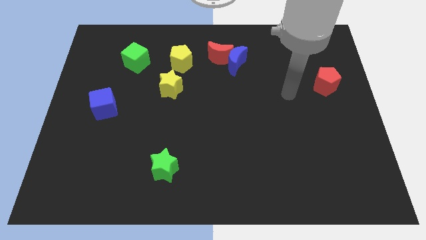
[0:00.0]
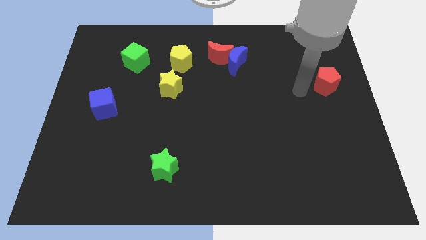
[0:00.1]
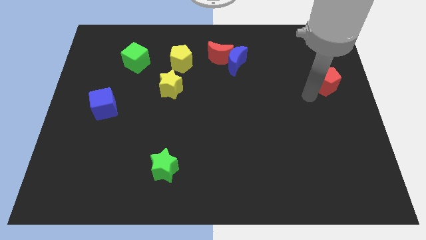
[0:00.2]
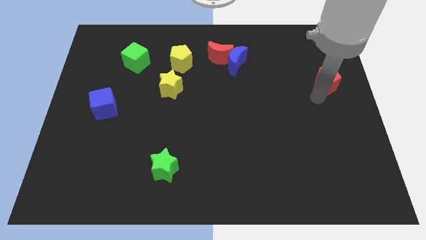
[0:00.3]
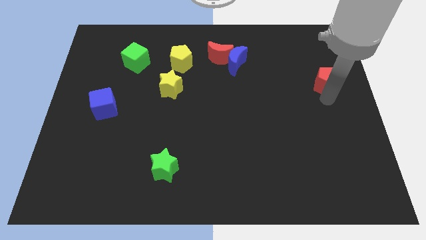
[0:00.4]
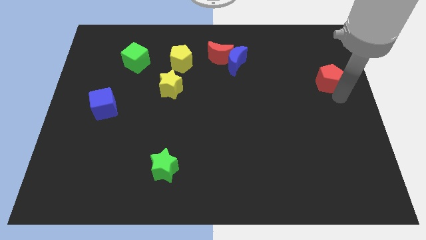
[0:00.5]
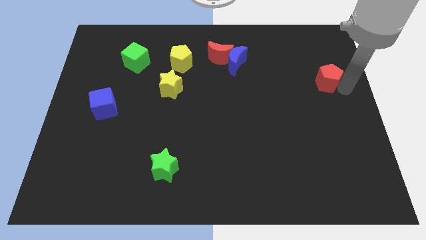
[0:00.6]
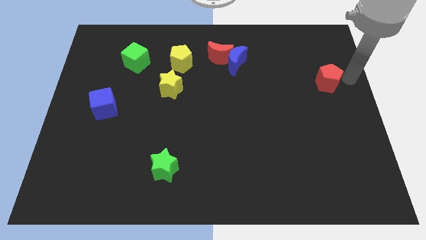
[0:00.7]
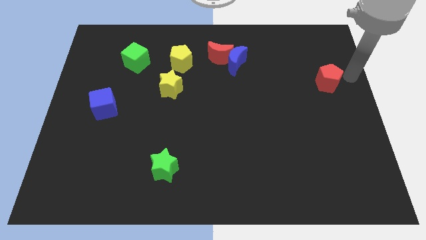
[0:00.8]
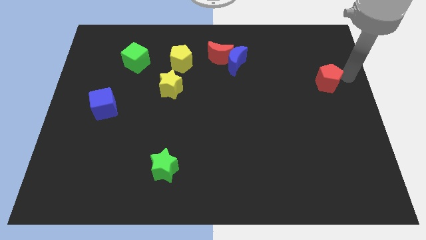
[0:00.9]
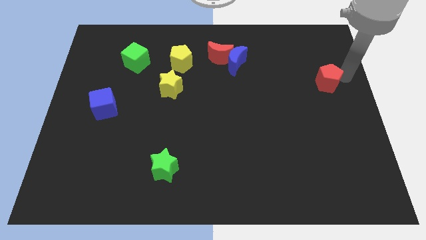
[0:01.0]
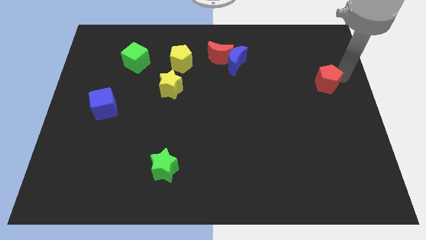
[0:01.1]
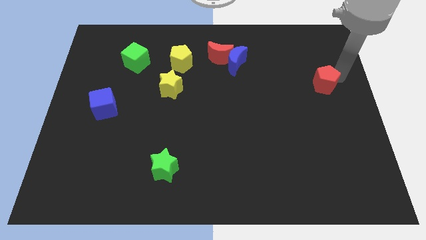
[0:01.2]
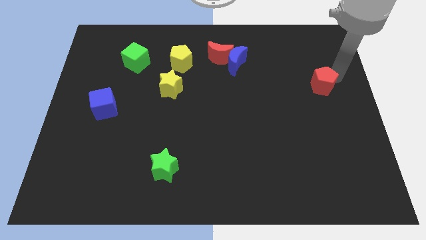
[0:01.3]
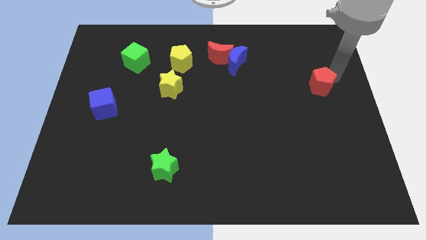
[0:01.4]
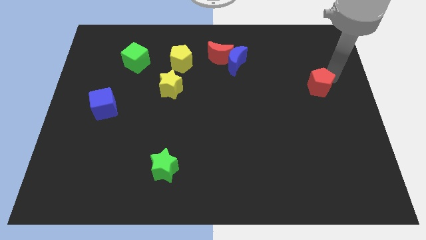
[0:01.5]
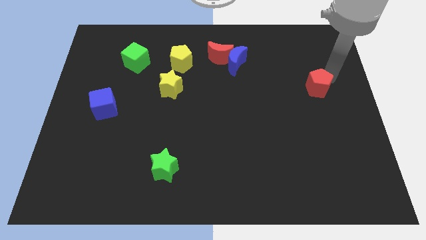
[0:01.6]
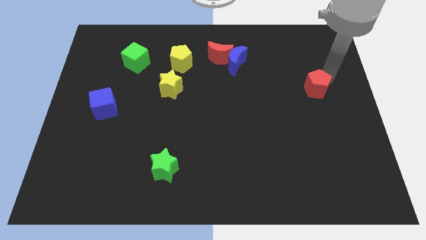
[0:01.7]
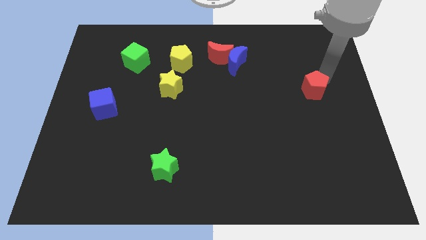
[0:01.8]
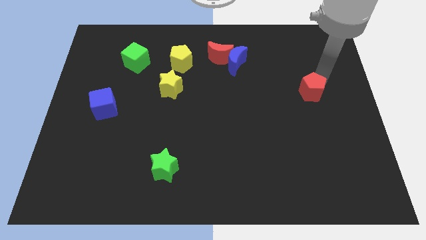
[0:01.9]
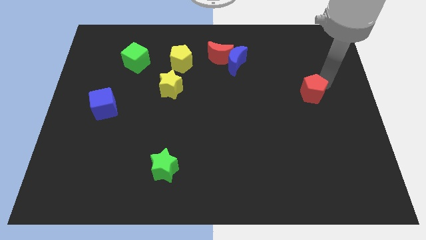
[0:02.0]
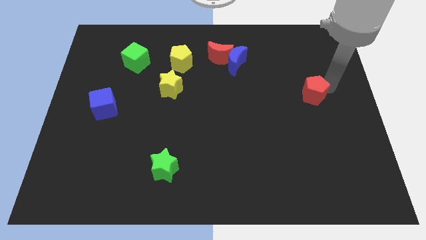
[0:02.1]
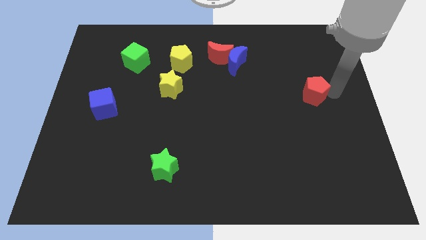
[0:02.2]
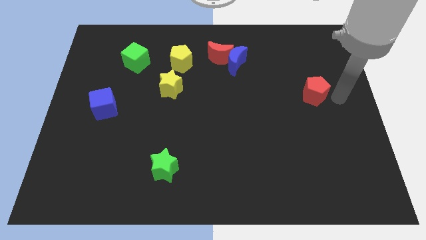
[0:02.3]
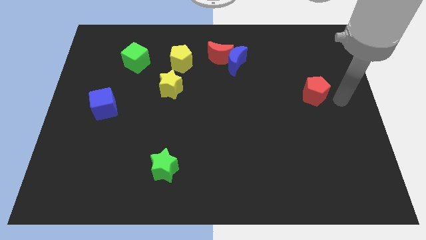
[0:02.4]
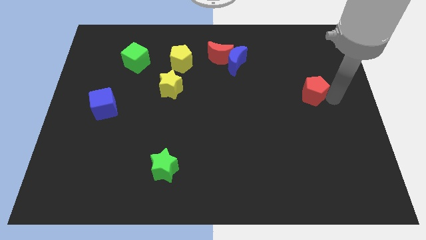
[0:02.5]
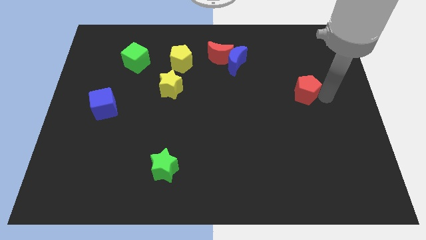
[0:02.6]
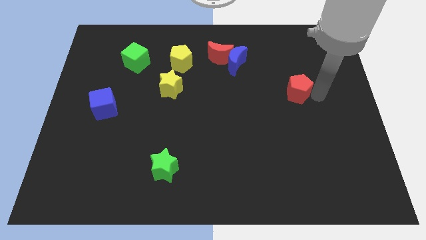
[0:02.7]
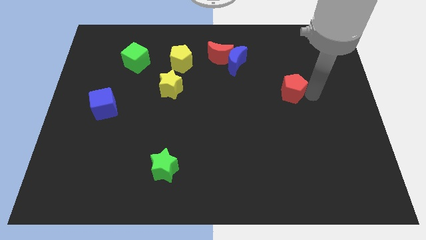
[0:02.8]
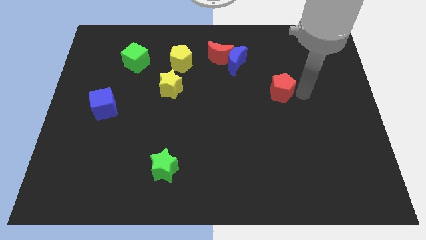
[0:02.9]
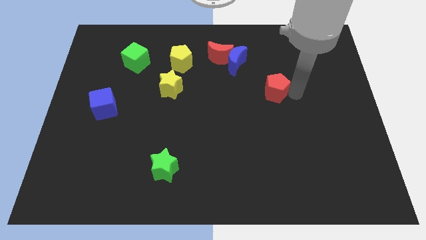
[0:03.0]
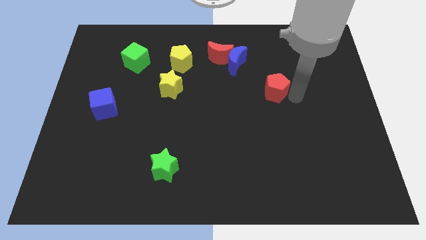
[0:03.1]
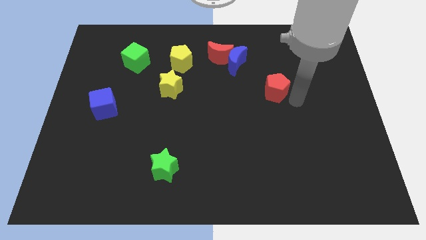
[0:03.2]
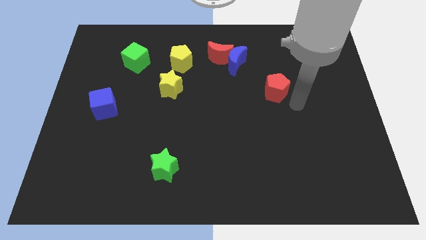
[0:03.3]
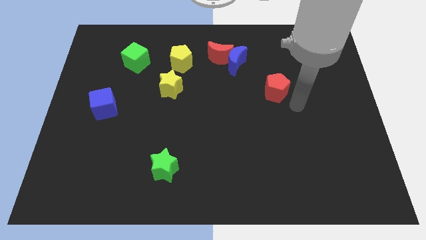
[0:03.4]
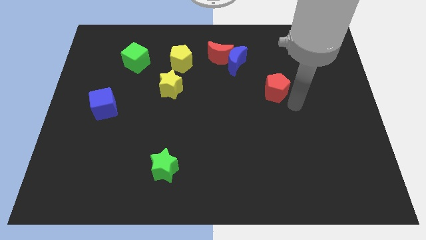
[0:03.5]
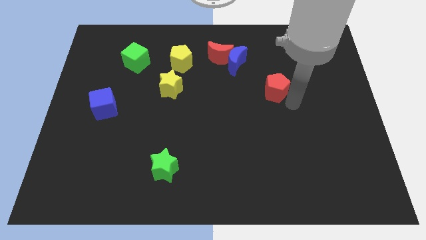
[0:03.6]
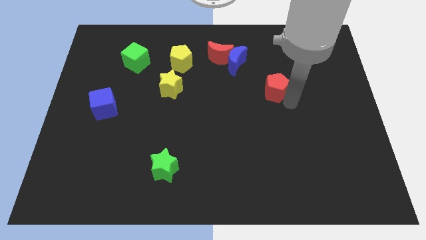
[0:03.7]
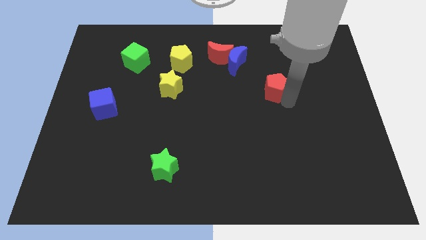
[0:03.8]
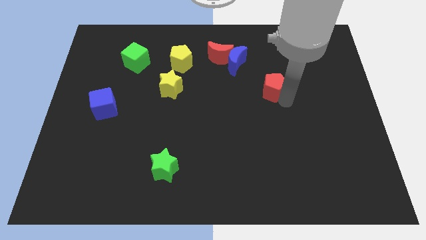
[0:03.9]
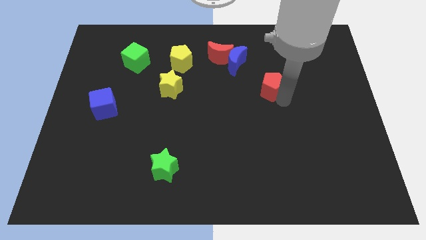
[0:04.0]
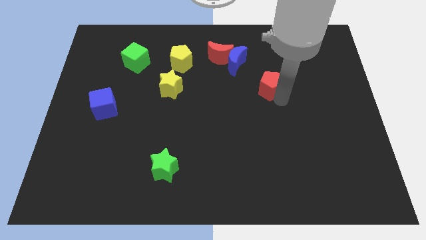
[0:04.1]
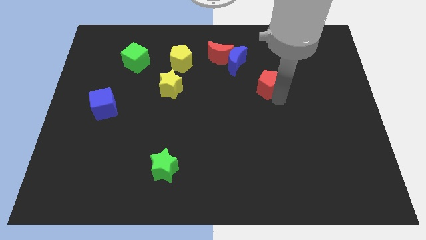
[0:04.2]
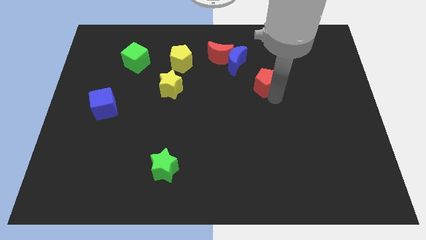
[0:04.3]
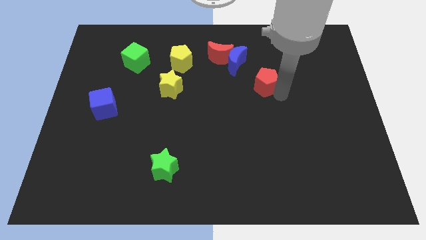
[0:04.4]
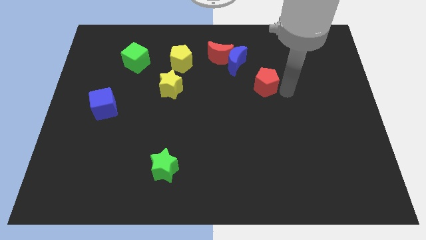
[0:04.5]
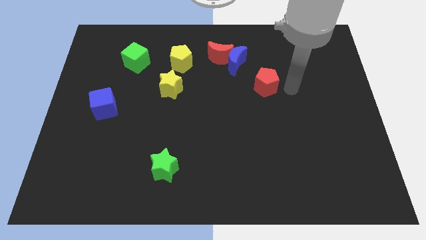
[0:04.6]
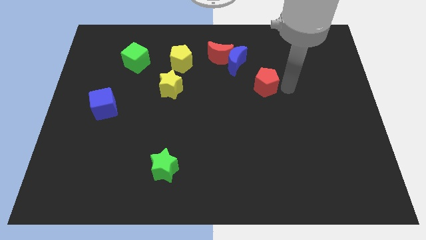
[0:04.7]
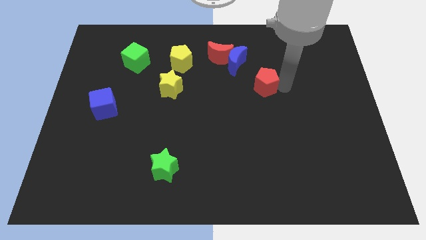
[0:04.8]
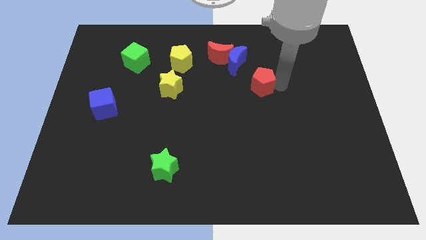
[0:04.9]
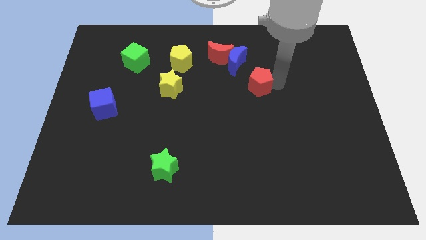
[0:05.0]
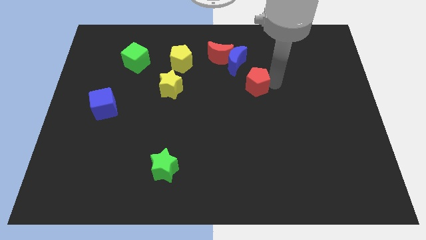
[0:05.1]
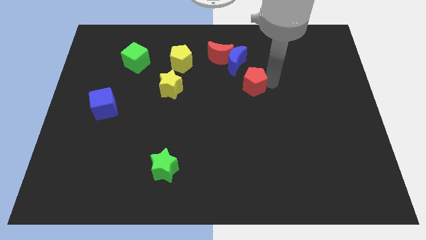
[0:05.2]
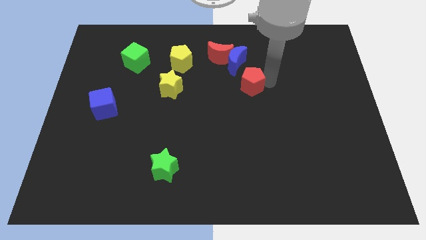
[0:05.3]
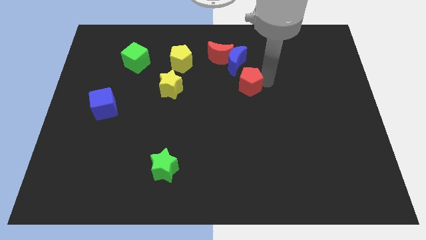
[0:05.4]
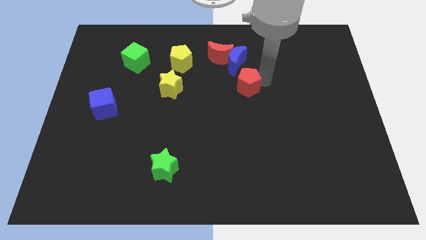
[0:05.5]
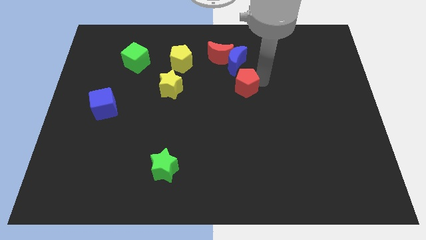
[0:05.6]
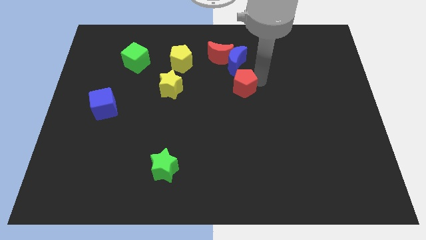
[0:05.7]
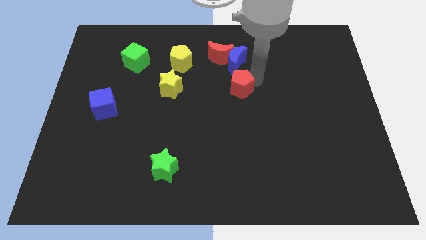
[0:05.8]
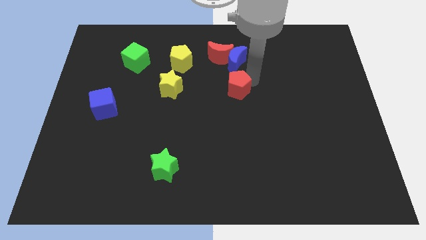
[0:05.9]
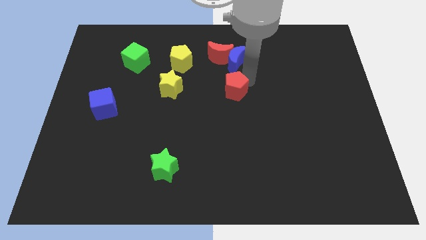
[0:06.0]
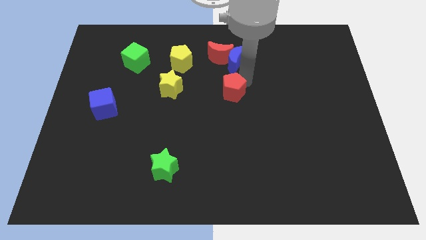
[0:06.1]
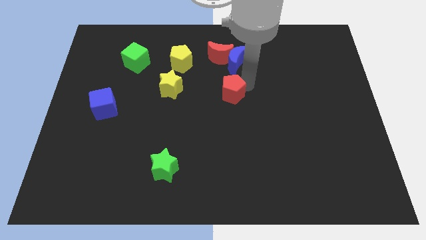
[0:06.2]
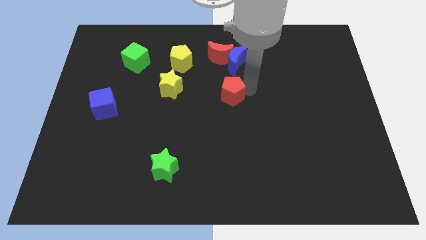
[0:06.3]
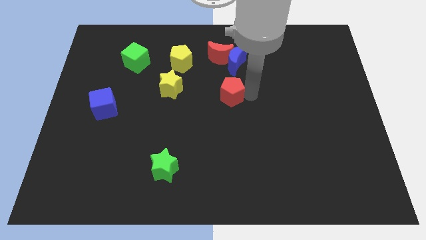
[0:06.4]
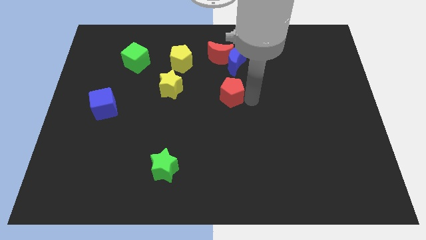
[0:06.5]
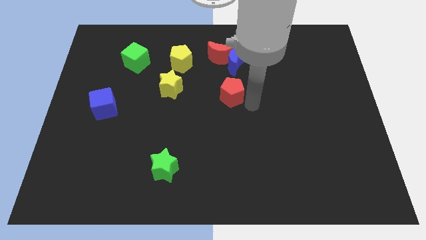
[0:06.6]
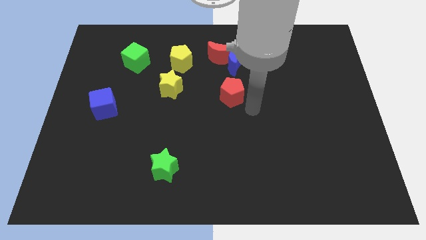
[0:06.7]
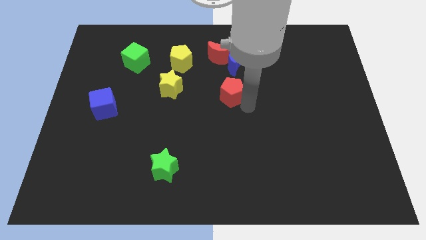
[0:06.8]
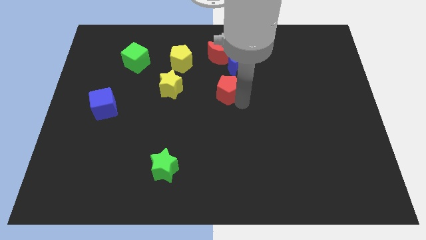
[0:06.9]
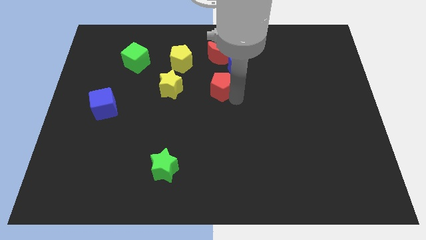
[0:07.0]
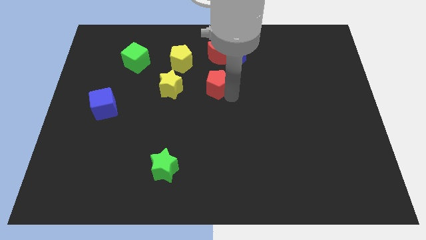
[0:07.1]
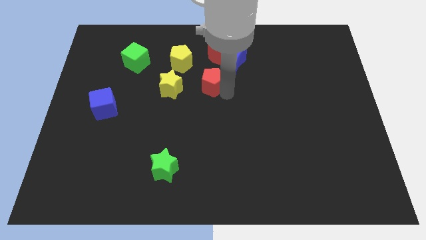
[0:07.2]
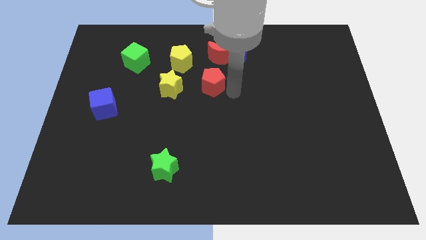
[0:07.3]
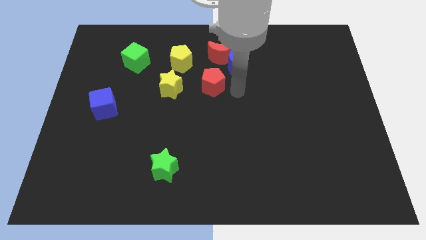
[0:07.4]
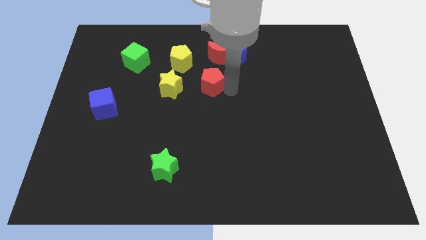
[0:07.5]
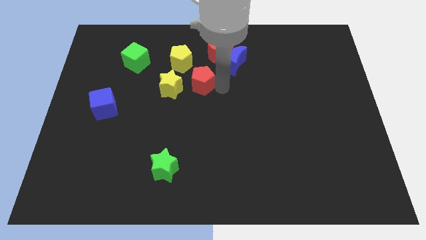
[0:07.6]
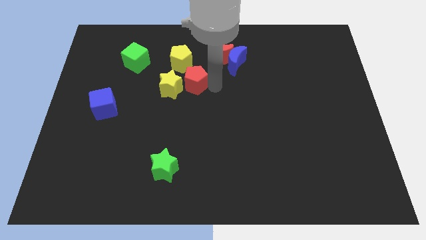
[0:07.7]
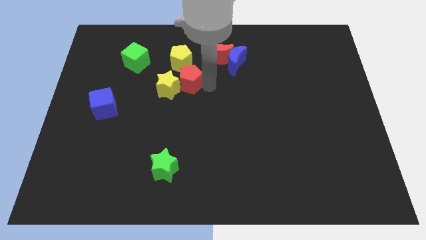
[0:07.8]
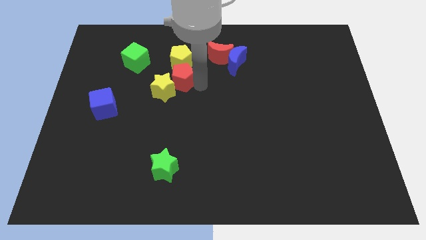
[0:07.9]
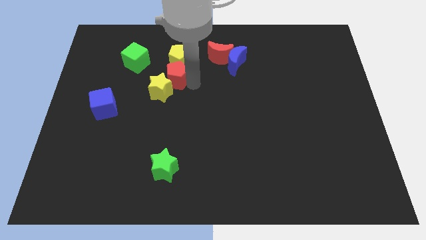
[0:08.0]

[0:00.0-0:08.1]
put the red pentagon to the bottom left of the yellow pentagon
